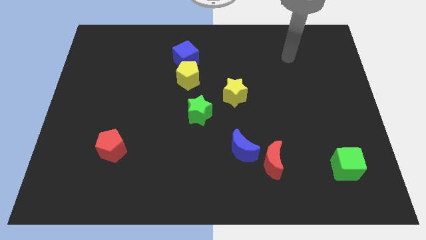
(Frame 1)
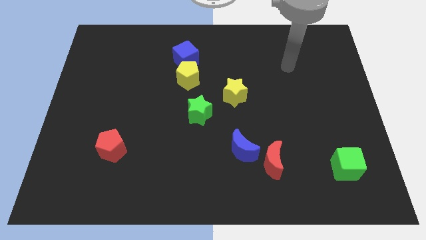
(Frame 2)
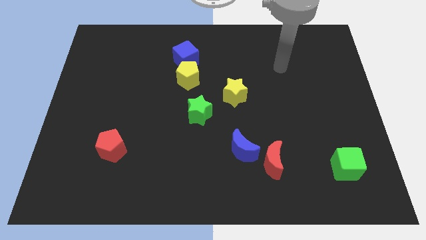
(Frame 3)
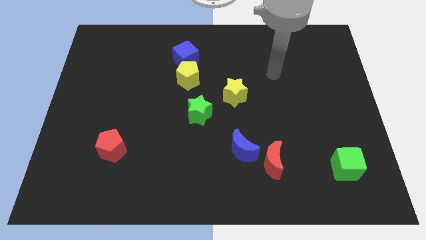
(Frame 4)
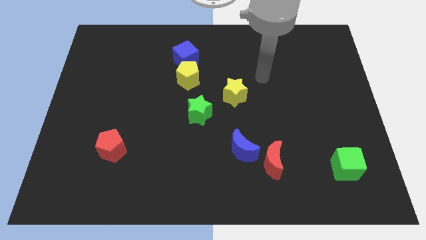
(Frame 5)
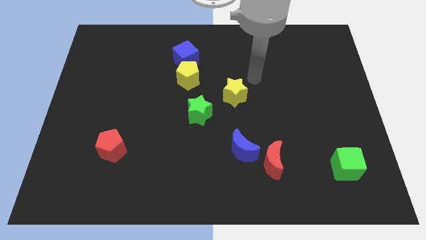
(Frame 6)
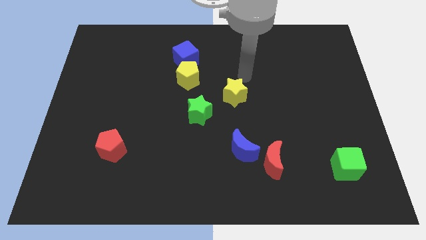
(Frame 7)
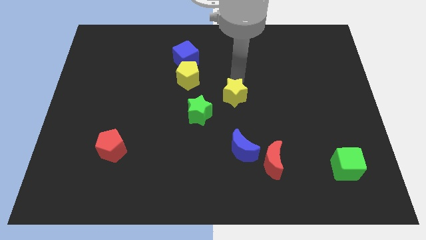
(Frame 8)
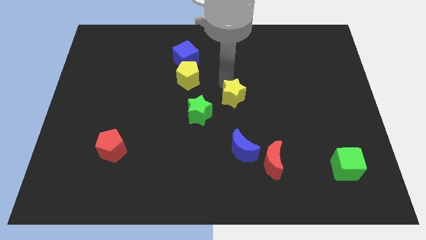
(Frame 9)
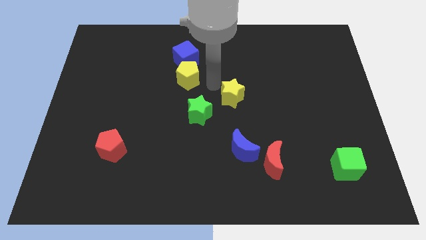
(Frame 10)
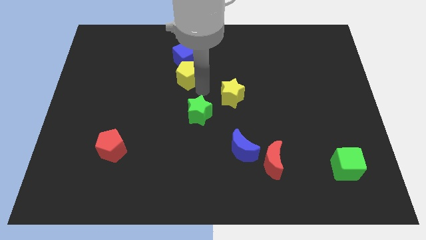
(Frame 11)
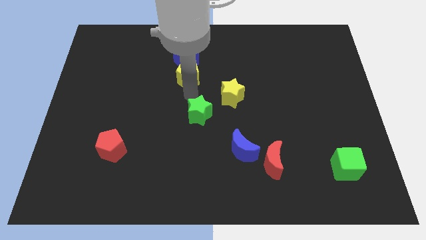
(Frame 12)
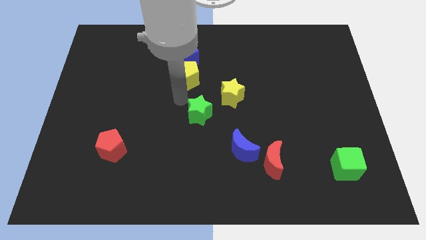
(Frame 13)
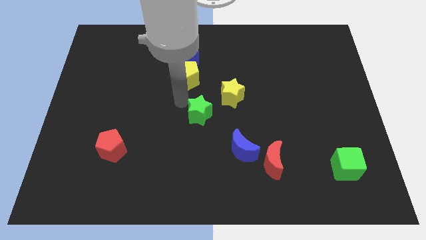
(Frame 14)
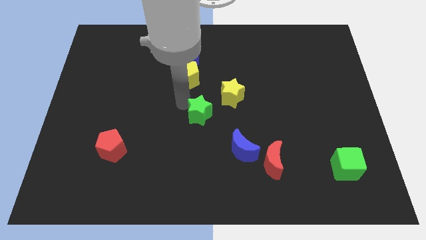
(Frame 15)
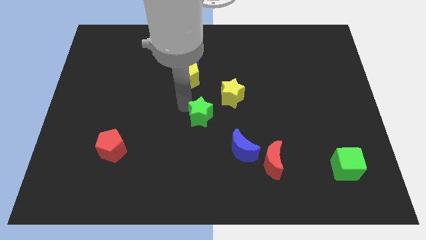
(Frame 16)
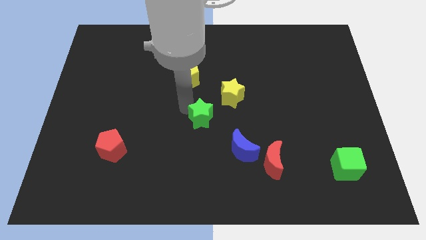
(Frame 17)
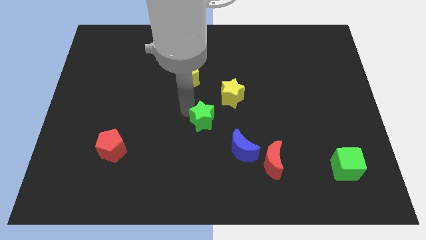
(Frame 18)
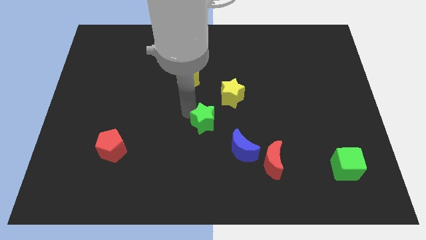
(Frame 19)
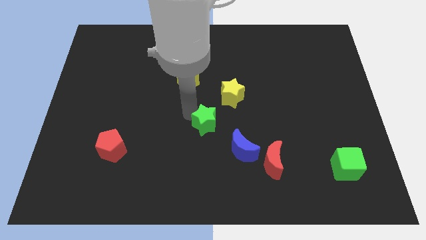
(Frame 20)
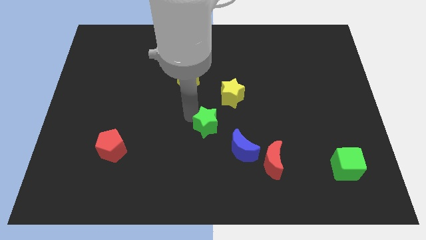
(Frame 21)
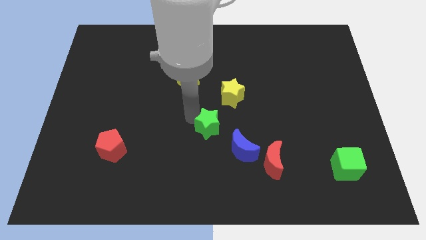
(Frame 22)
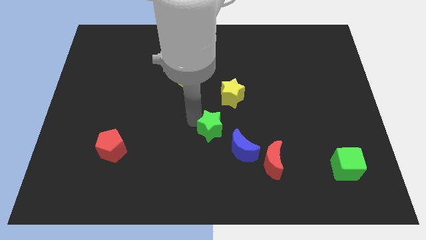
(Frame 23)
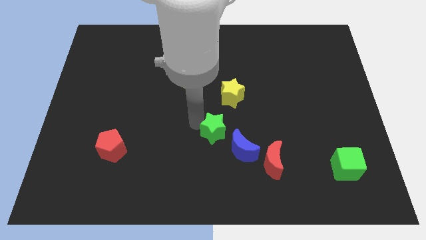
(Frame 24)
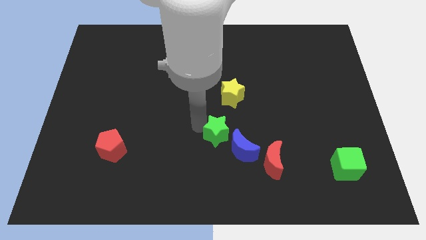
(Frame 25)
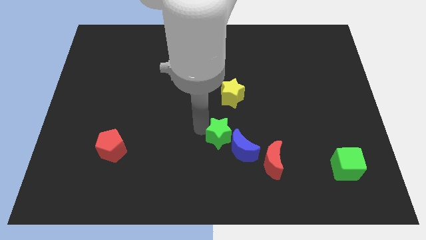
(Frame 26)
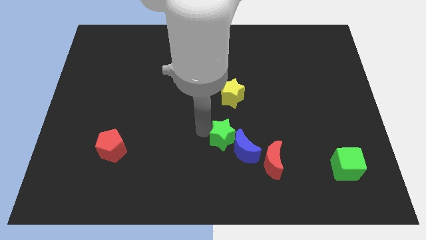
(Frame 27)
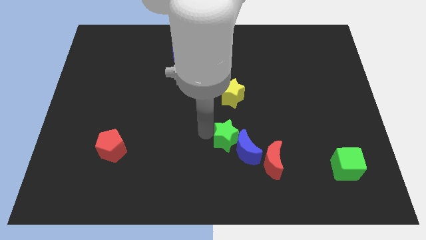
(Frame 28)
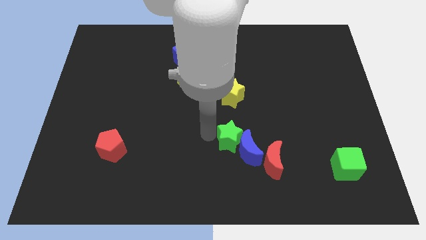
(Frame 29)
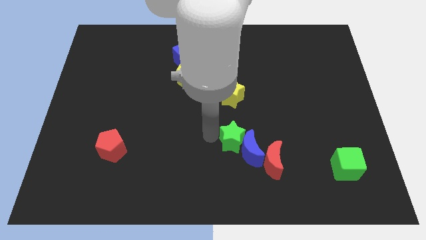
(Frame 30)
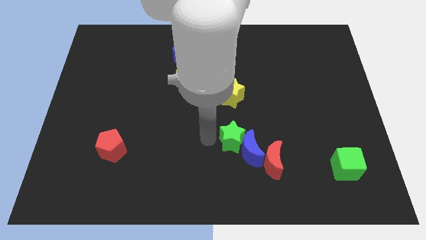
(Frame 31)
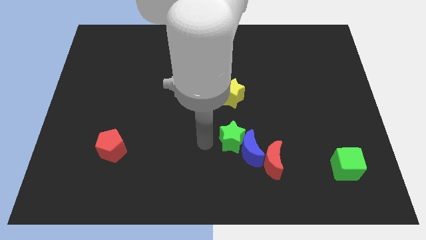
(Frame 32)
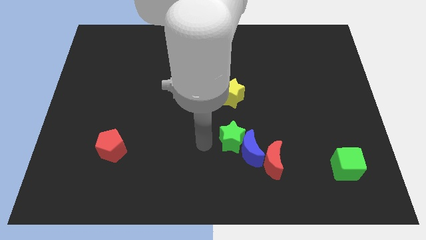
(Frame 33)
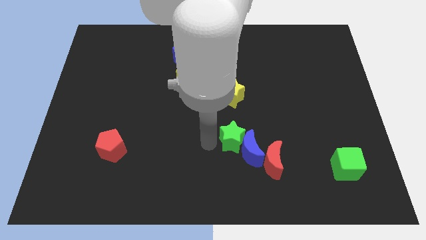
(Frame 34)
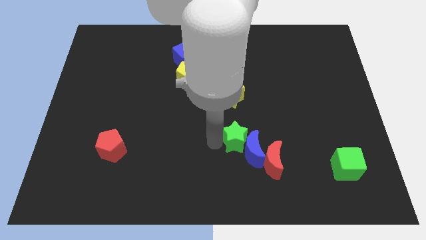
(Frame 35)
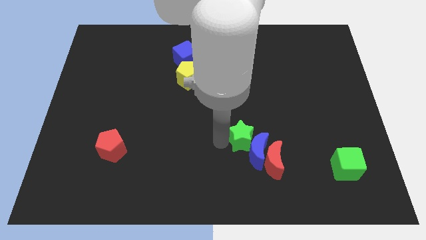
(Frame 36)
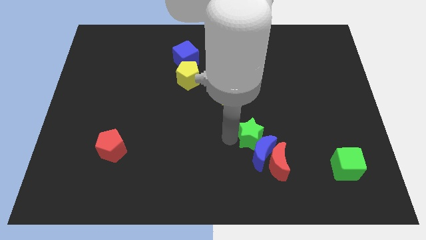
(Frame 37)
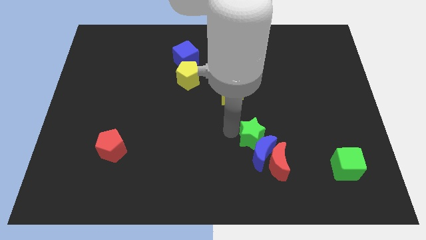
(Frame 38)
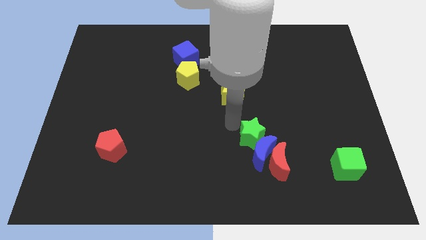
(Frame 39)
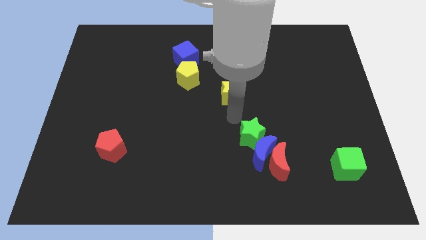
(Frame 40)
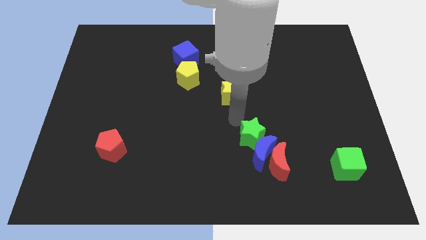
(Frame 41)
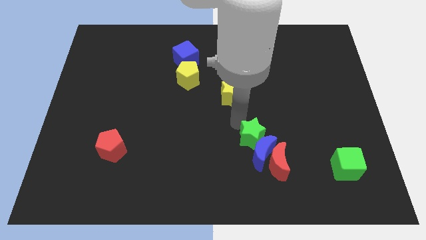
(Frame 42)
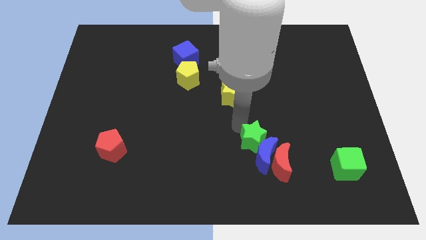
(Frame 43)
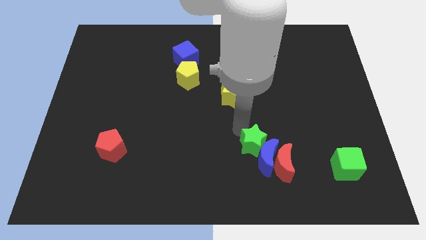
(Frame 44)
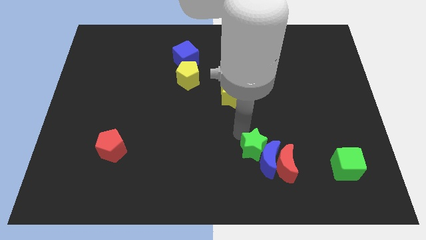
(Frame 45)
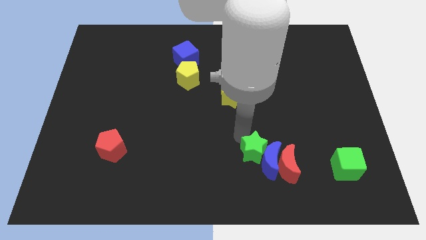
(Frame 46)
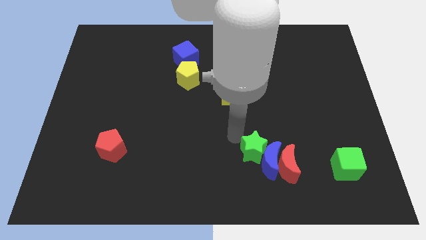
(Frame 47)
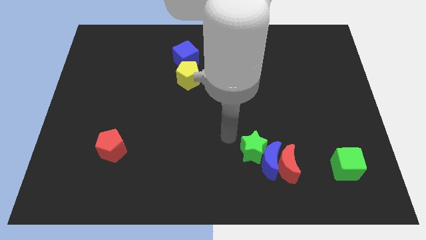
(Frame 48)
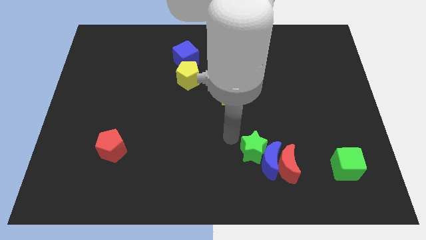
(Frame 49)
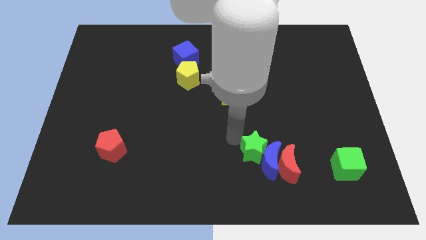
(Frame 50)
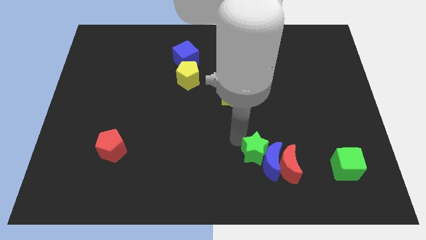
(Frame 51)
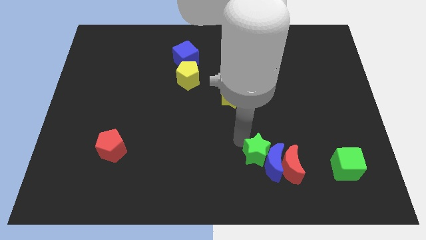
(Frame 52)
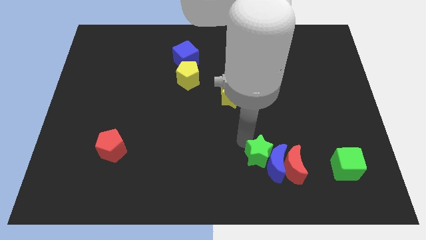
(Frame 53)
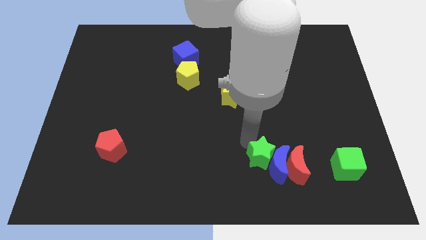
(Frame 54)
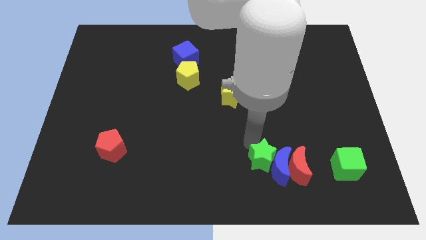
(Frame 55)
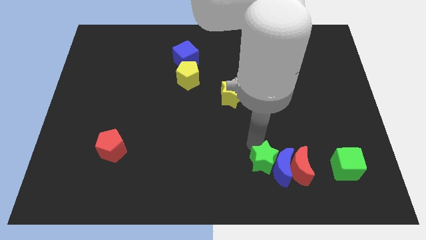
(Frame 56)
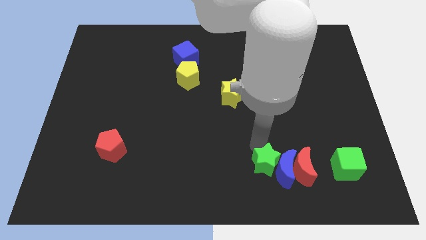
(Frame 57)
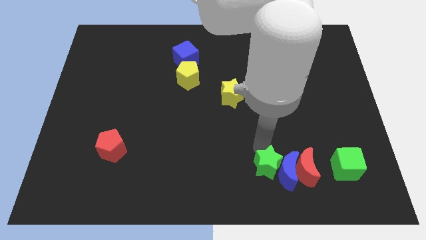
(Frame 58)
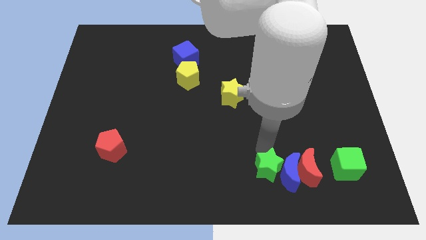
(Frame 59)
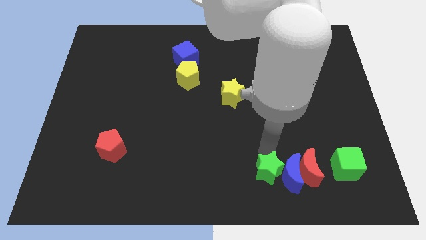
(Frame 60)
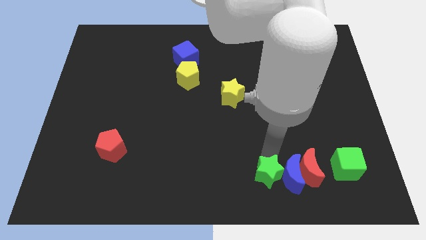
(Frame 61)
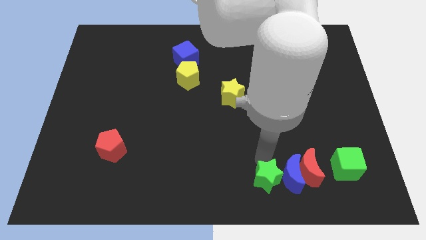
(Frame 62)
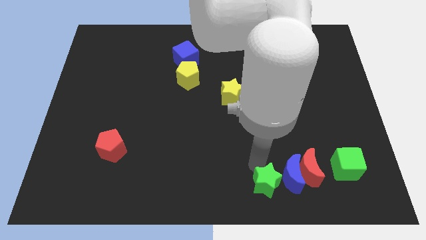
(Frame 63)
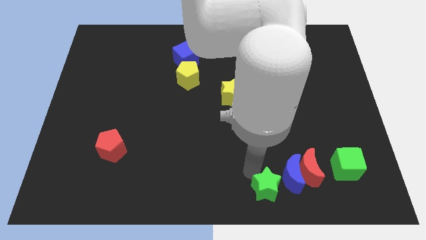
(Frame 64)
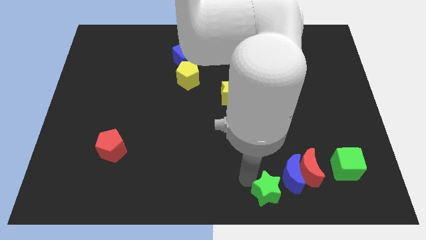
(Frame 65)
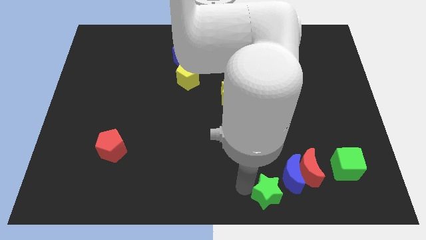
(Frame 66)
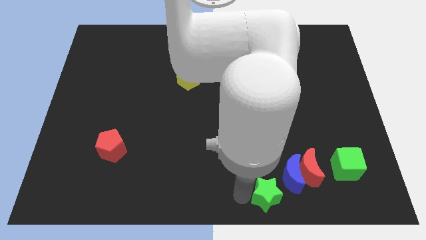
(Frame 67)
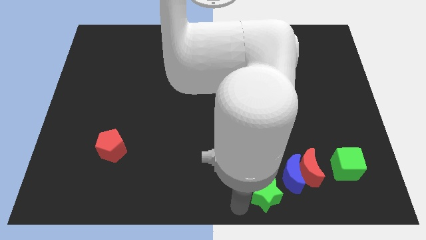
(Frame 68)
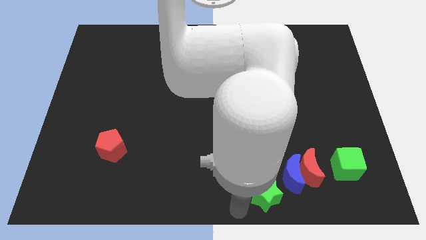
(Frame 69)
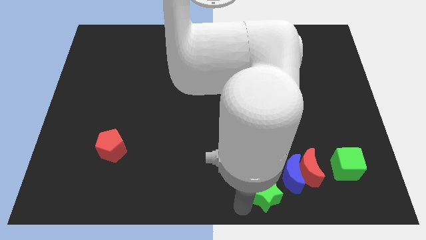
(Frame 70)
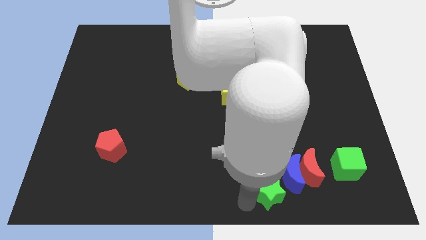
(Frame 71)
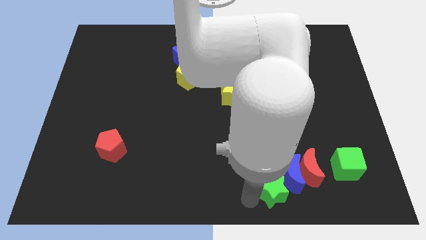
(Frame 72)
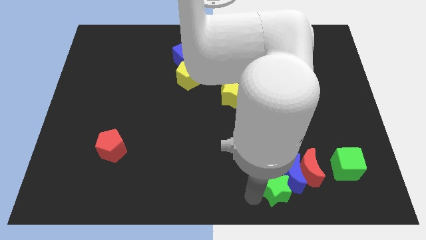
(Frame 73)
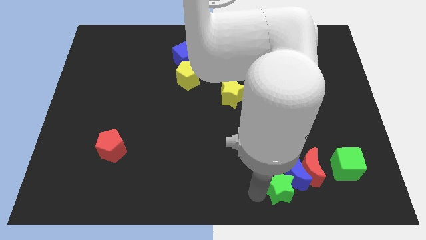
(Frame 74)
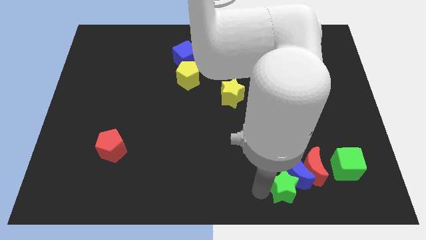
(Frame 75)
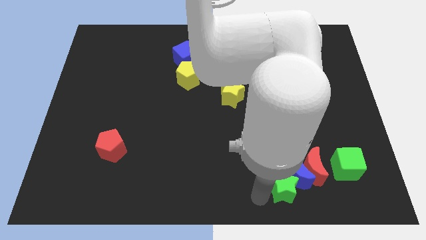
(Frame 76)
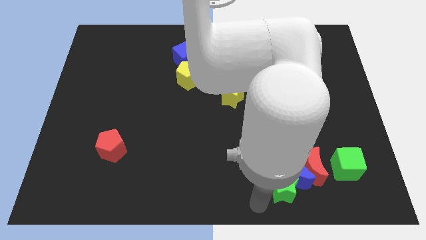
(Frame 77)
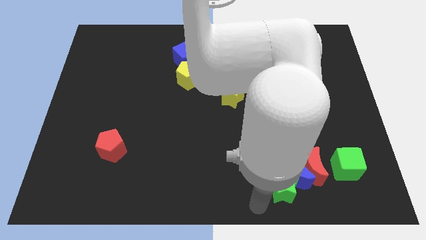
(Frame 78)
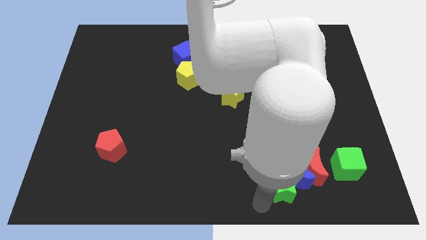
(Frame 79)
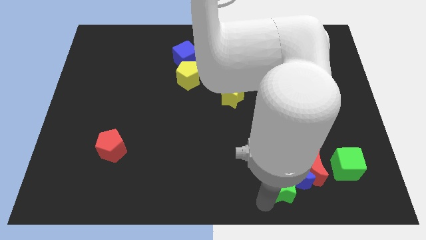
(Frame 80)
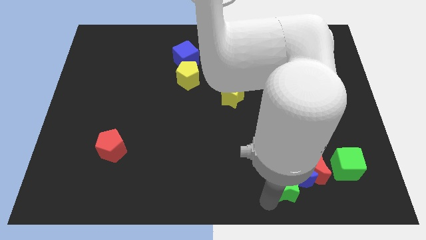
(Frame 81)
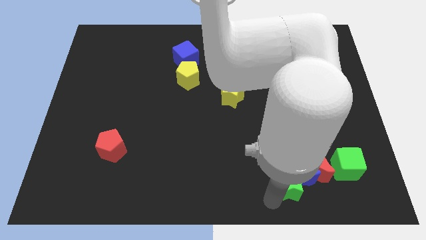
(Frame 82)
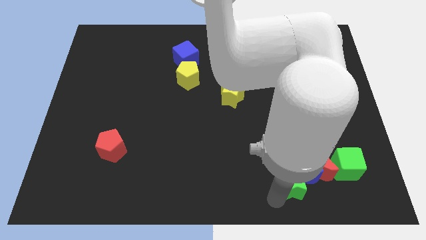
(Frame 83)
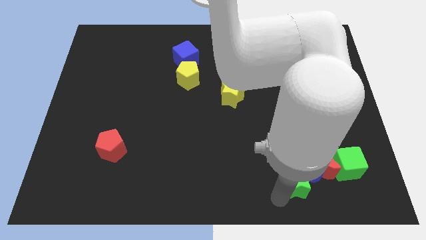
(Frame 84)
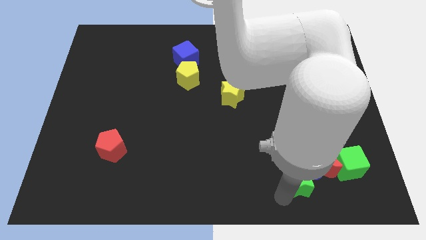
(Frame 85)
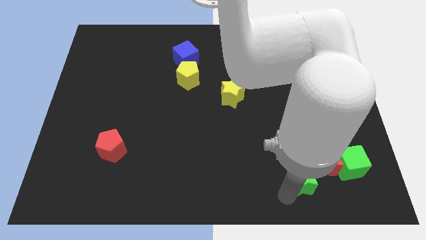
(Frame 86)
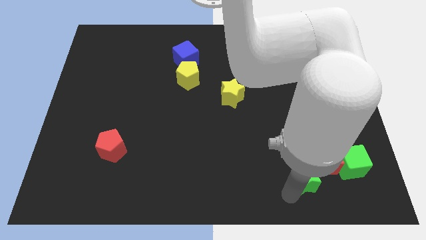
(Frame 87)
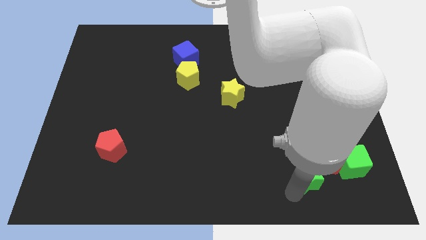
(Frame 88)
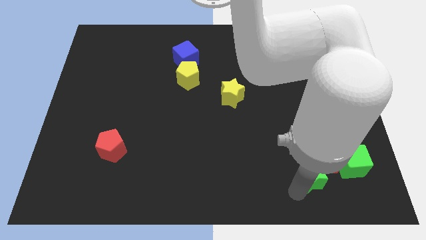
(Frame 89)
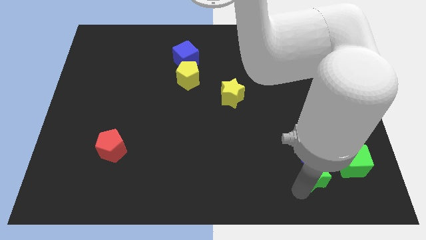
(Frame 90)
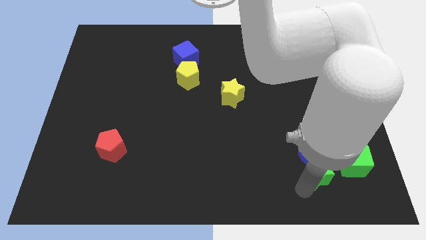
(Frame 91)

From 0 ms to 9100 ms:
put the green star towards the red moon
